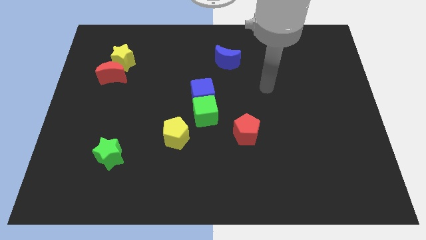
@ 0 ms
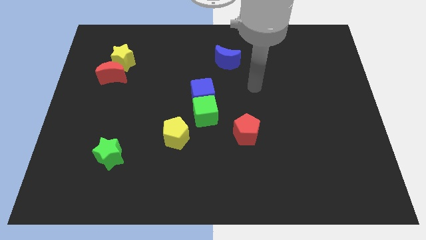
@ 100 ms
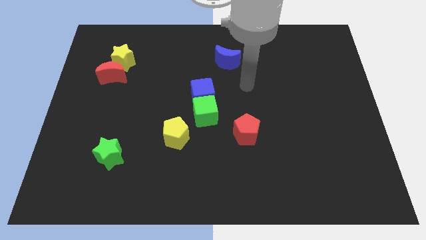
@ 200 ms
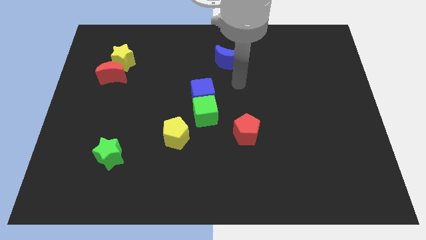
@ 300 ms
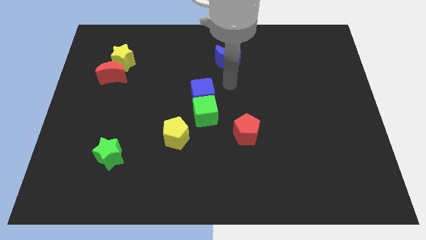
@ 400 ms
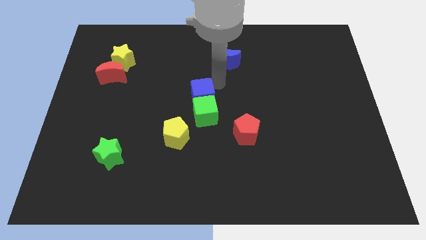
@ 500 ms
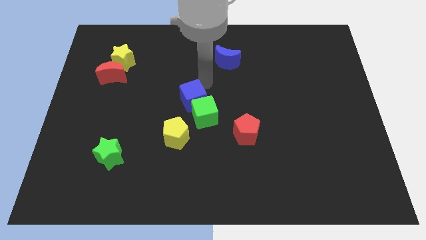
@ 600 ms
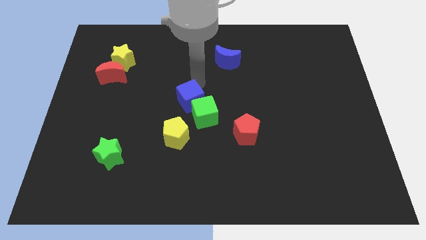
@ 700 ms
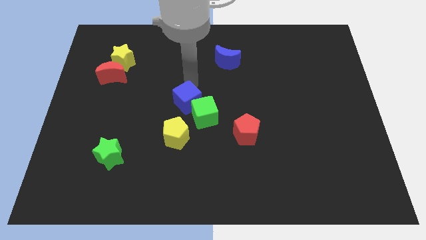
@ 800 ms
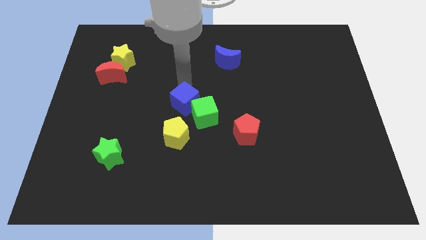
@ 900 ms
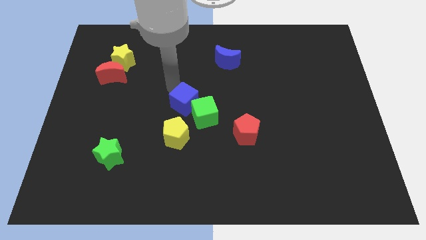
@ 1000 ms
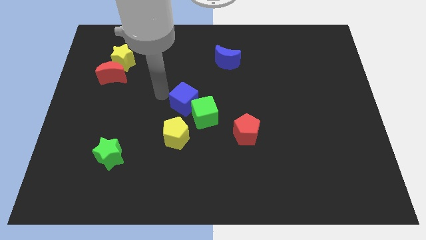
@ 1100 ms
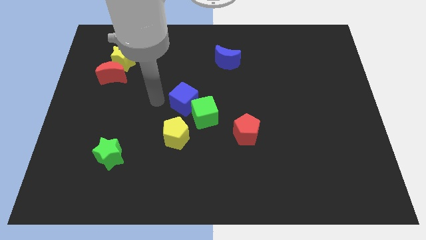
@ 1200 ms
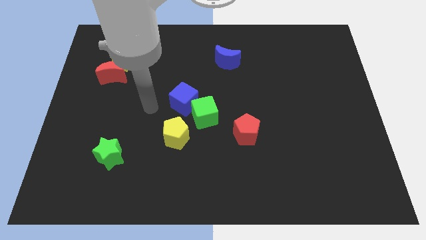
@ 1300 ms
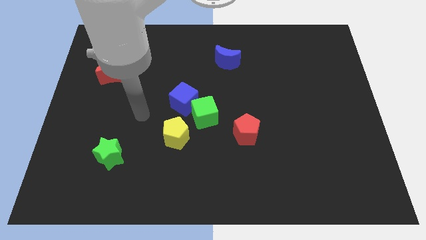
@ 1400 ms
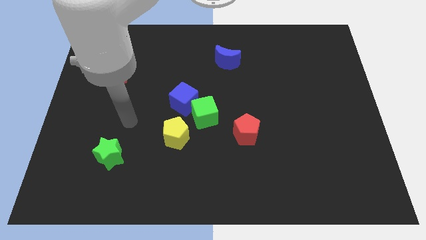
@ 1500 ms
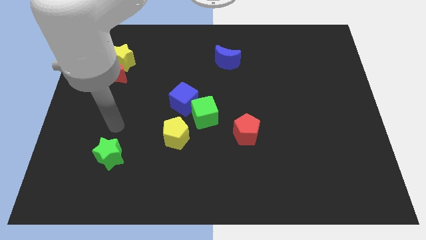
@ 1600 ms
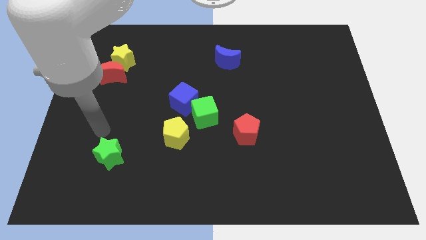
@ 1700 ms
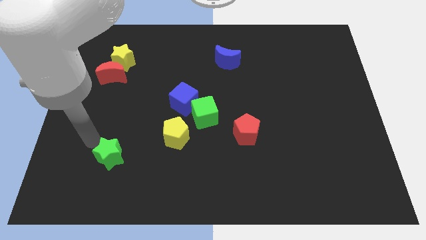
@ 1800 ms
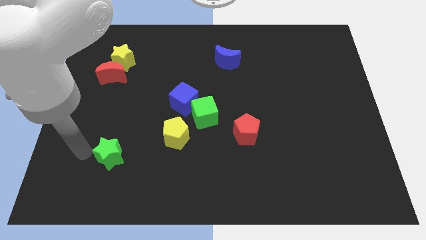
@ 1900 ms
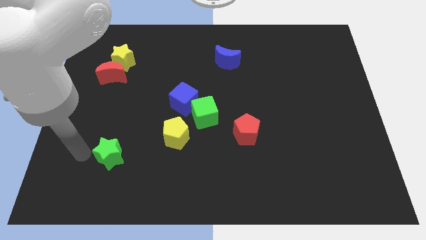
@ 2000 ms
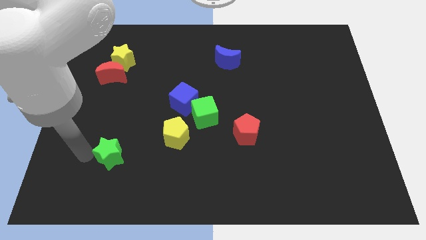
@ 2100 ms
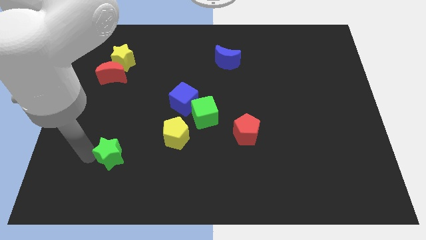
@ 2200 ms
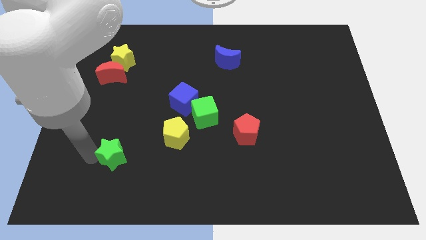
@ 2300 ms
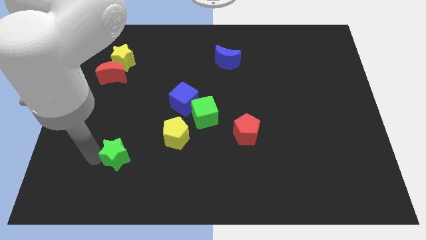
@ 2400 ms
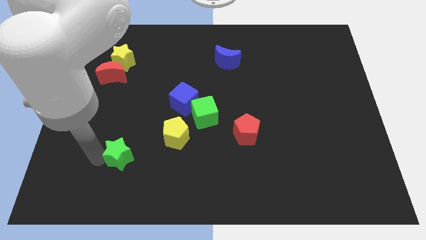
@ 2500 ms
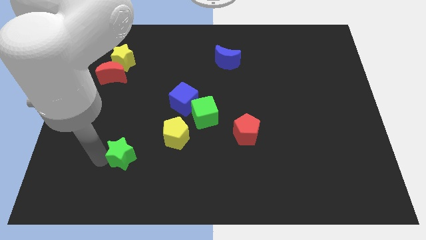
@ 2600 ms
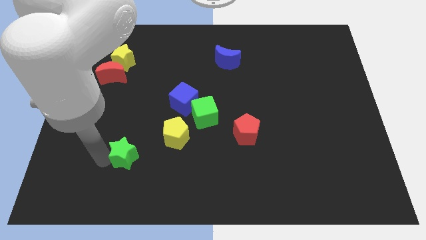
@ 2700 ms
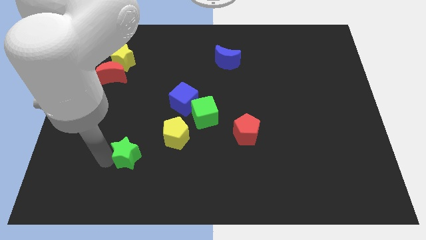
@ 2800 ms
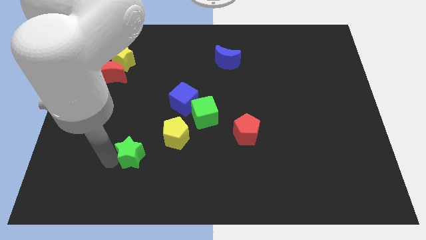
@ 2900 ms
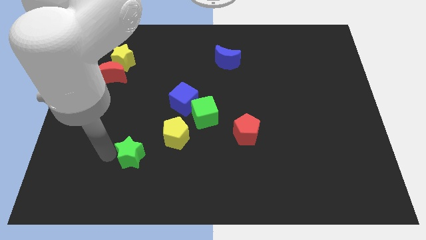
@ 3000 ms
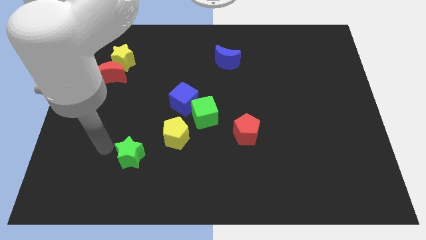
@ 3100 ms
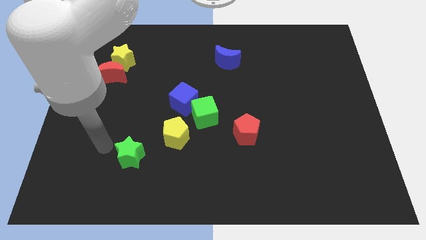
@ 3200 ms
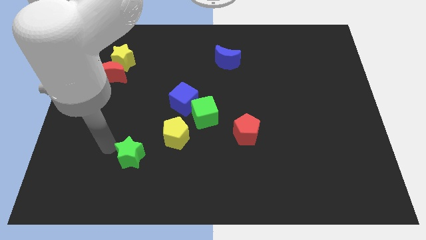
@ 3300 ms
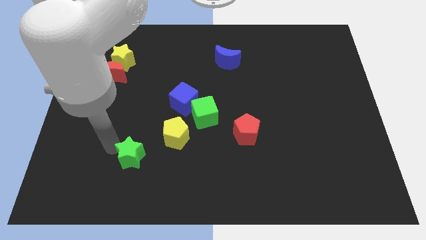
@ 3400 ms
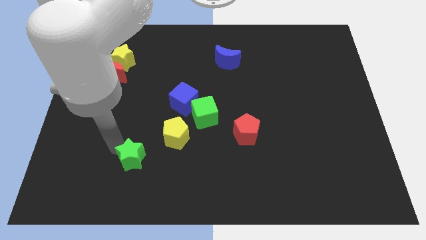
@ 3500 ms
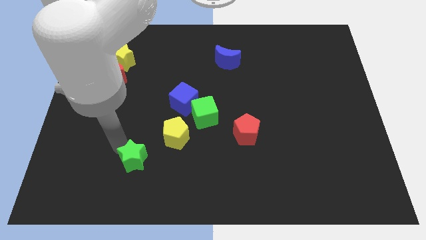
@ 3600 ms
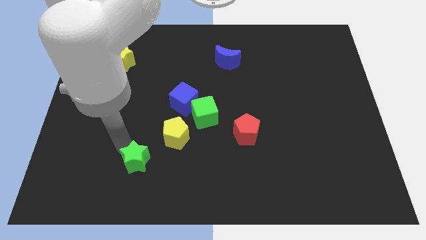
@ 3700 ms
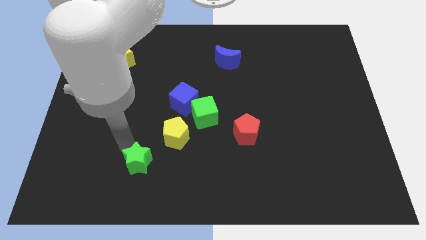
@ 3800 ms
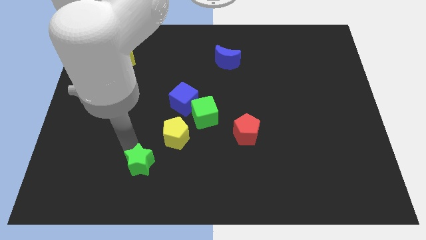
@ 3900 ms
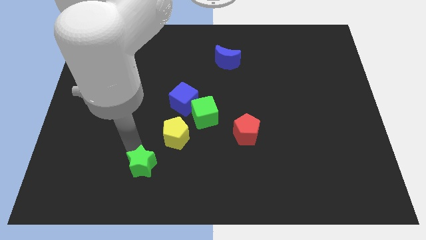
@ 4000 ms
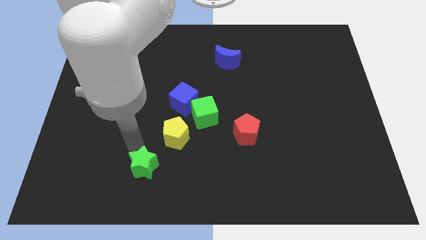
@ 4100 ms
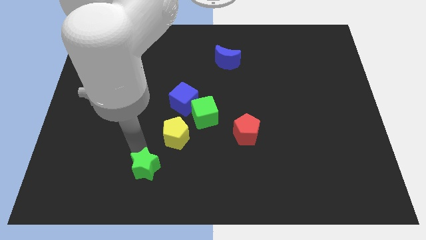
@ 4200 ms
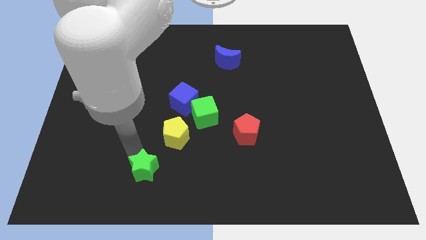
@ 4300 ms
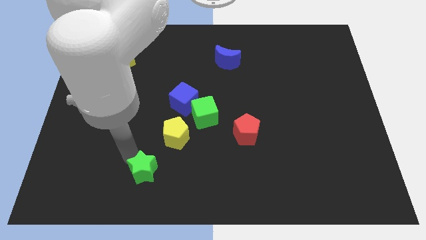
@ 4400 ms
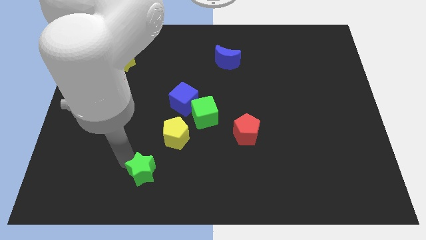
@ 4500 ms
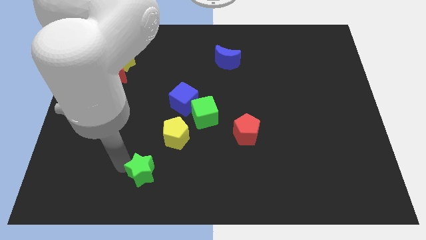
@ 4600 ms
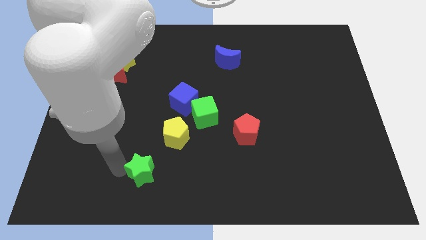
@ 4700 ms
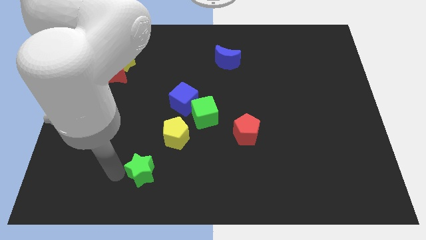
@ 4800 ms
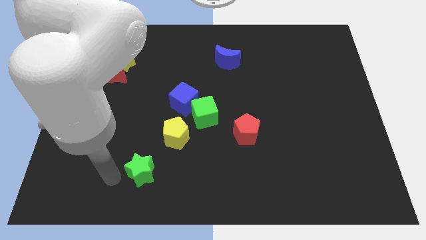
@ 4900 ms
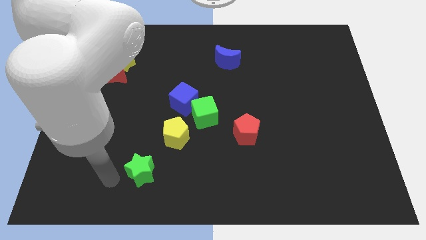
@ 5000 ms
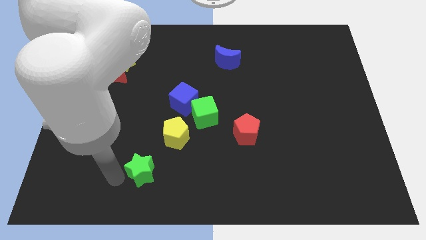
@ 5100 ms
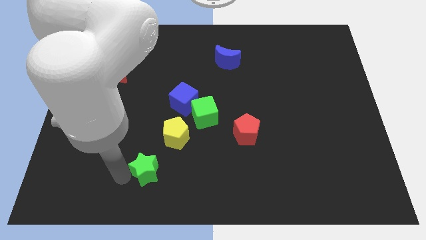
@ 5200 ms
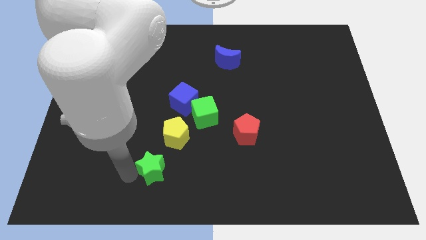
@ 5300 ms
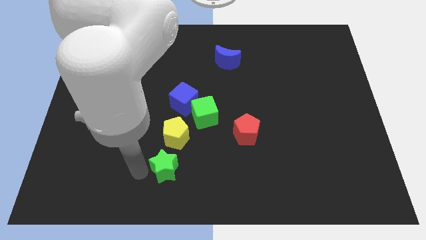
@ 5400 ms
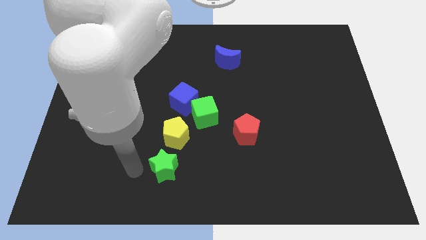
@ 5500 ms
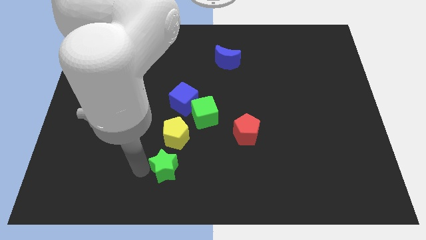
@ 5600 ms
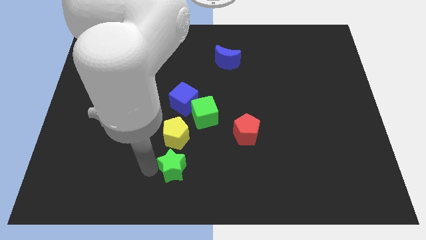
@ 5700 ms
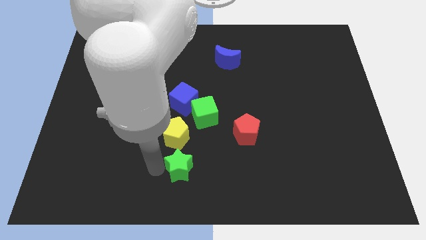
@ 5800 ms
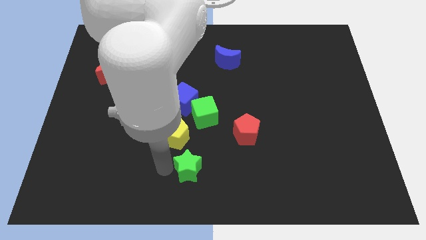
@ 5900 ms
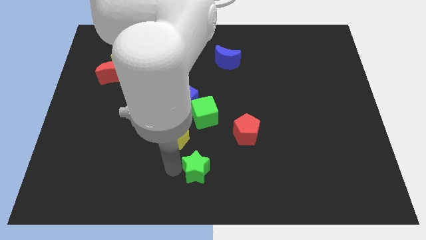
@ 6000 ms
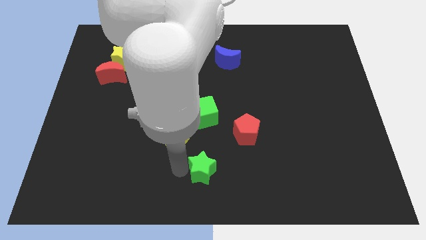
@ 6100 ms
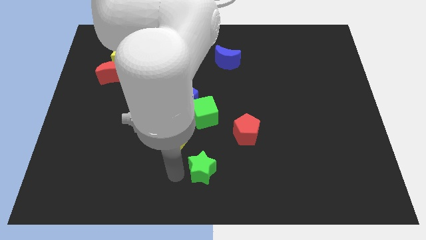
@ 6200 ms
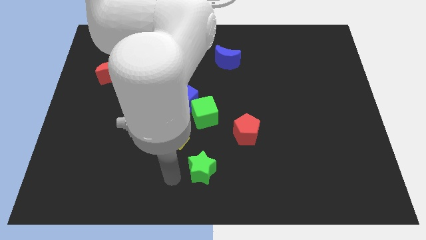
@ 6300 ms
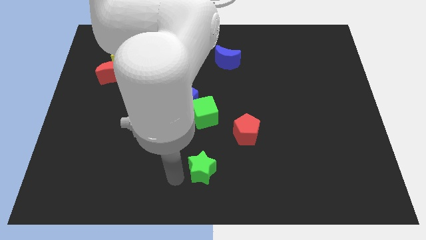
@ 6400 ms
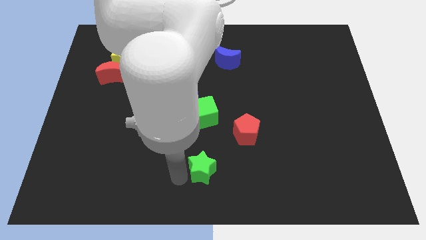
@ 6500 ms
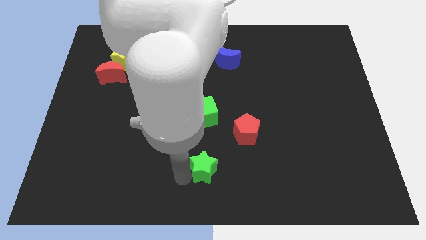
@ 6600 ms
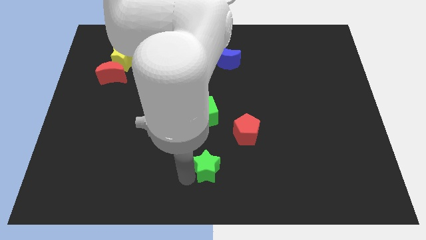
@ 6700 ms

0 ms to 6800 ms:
slide the green star to the right

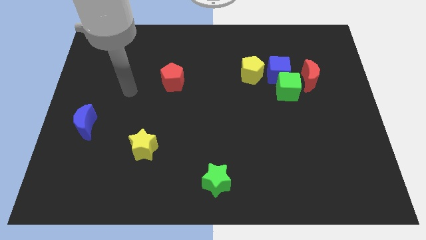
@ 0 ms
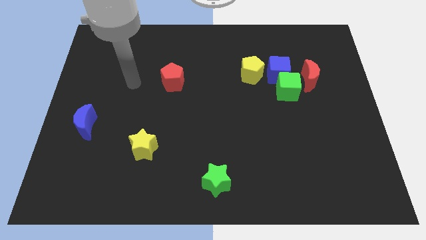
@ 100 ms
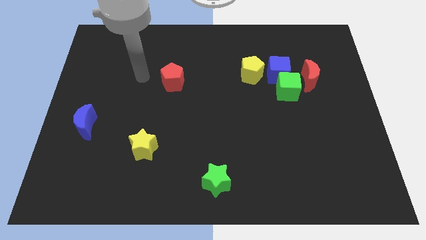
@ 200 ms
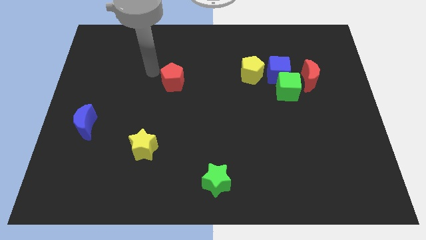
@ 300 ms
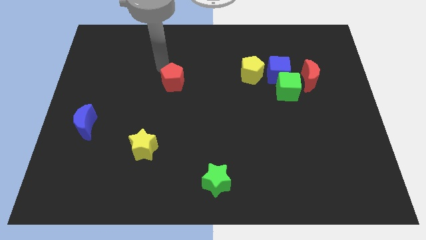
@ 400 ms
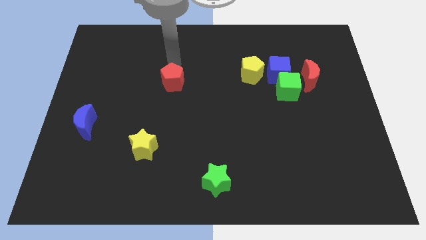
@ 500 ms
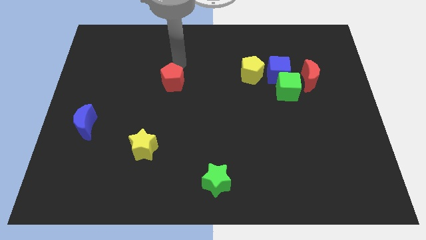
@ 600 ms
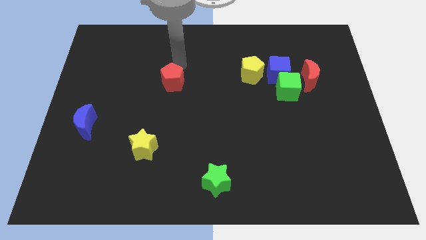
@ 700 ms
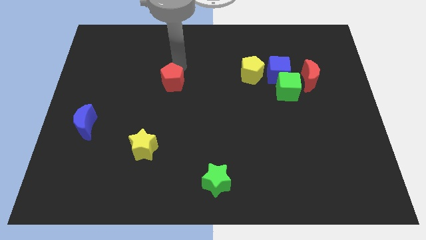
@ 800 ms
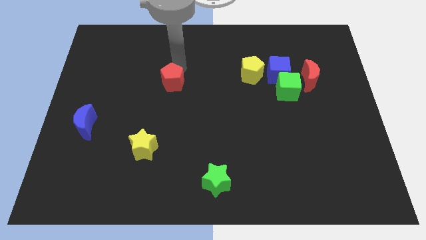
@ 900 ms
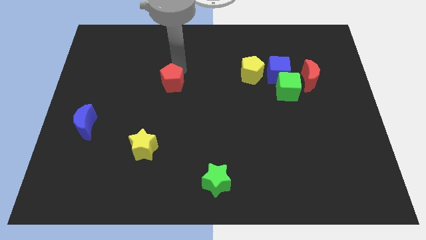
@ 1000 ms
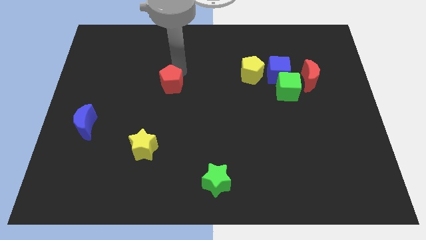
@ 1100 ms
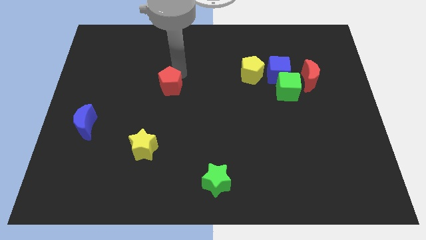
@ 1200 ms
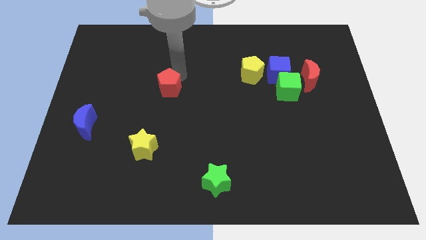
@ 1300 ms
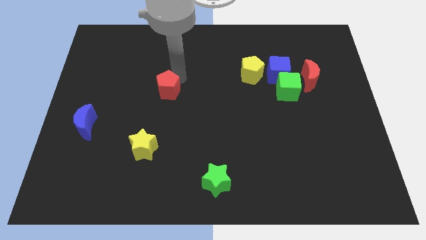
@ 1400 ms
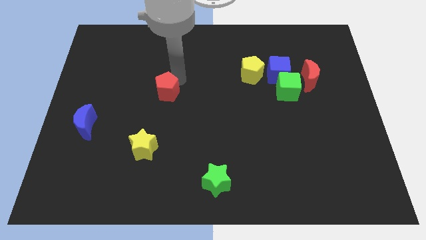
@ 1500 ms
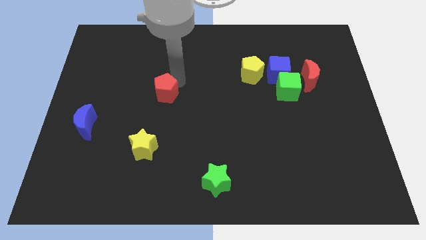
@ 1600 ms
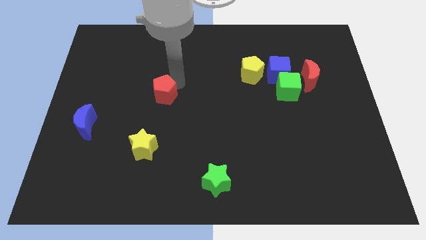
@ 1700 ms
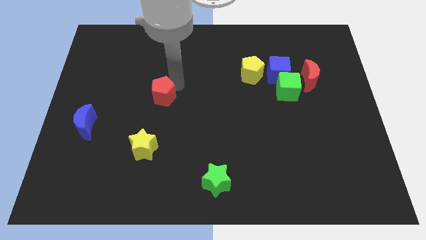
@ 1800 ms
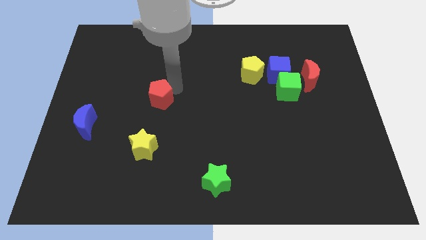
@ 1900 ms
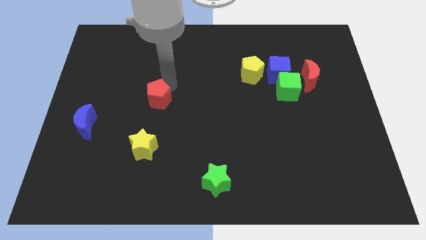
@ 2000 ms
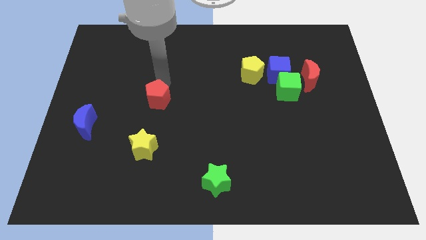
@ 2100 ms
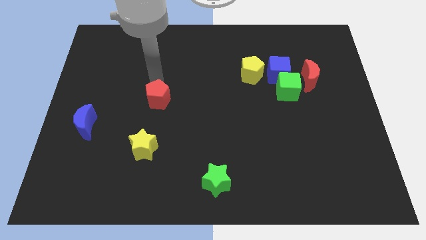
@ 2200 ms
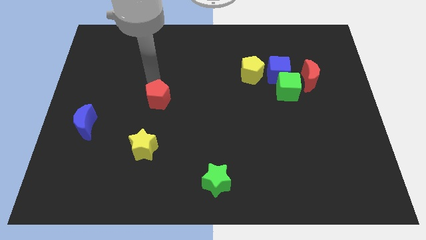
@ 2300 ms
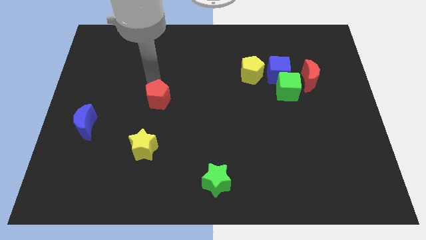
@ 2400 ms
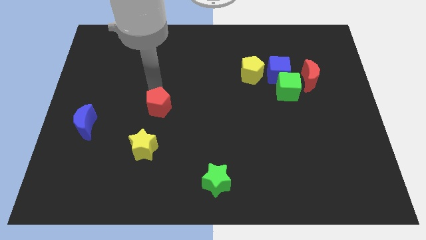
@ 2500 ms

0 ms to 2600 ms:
slightly slide the red pentagon down
